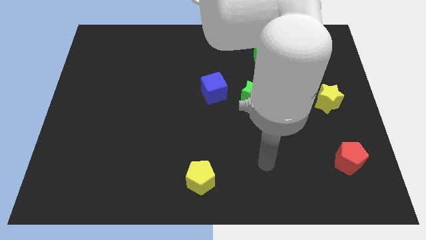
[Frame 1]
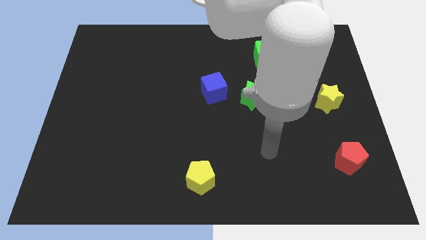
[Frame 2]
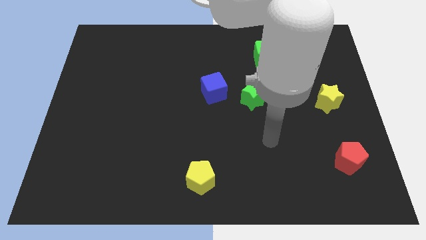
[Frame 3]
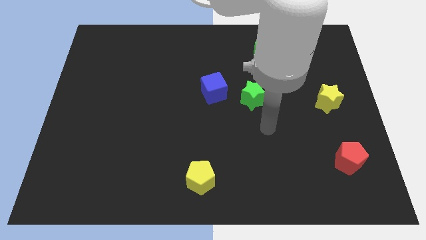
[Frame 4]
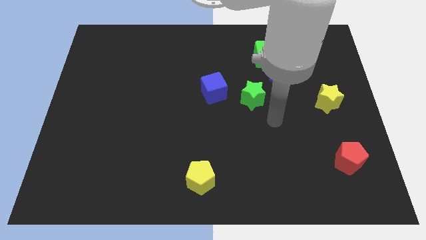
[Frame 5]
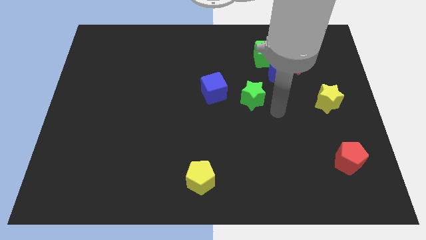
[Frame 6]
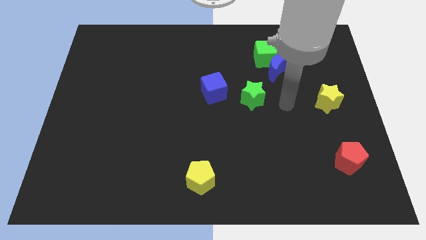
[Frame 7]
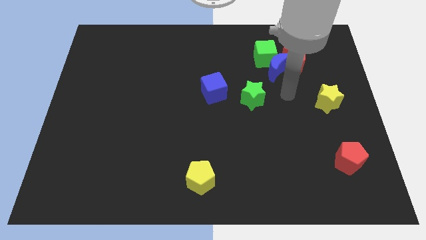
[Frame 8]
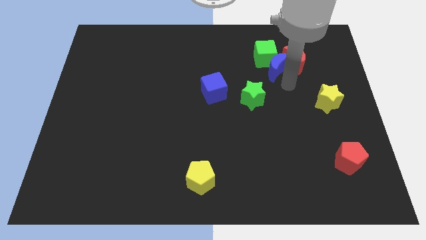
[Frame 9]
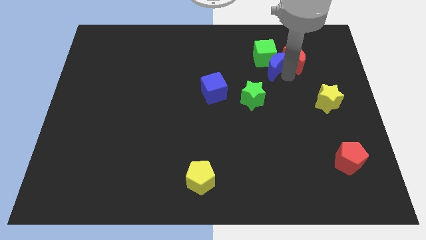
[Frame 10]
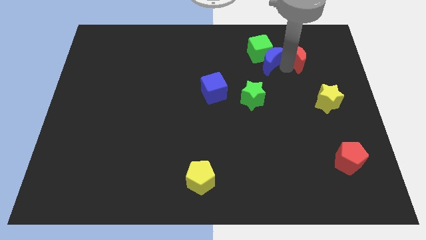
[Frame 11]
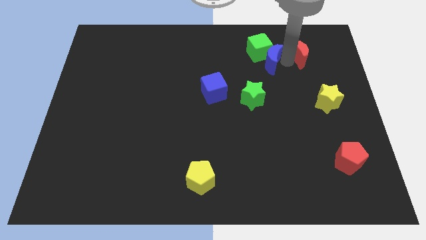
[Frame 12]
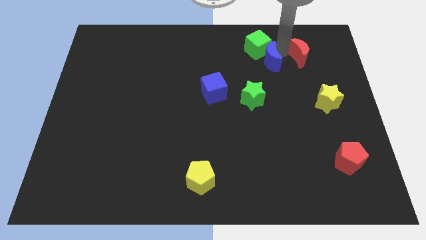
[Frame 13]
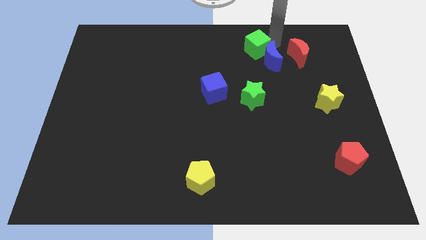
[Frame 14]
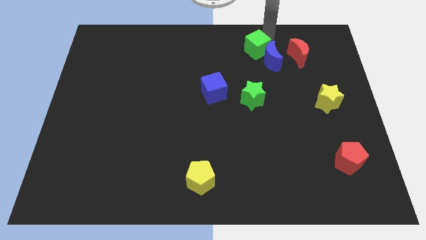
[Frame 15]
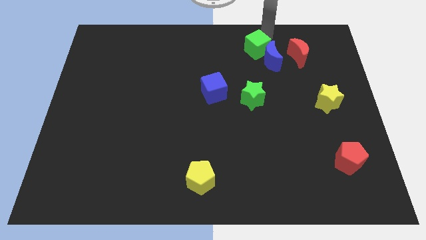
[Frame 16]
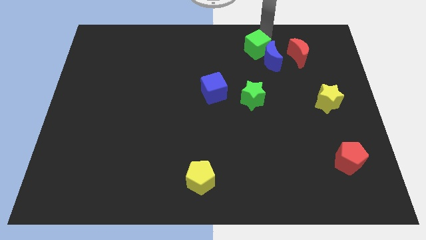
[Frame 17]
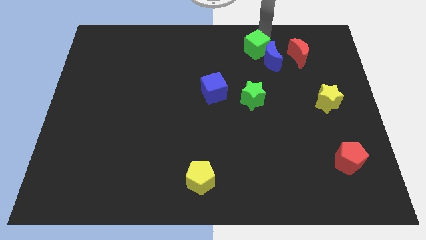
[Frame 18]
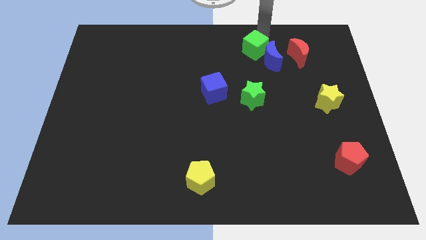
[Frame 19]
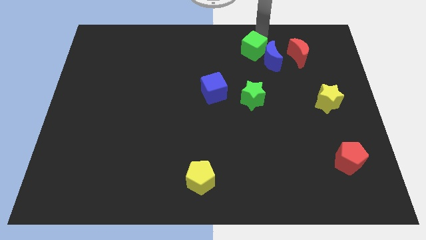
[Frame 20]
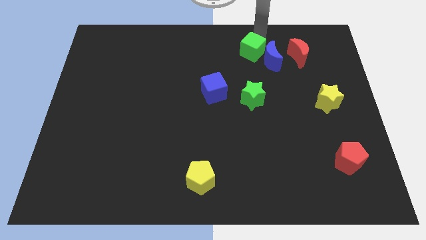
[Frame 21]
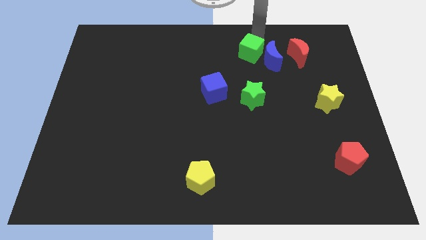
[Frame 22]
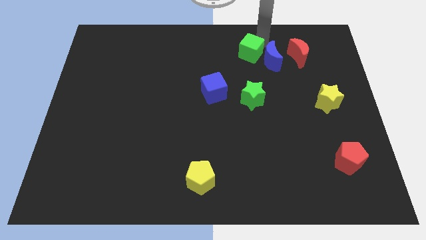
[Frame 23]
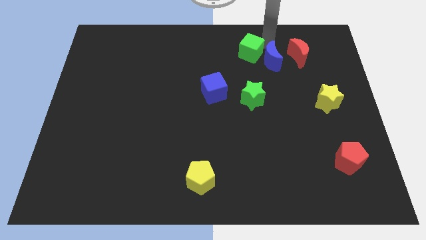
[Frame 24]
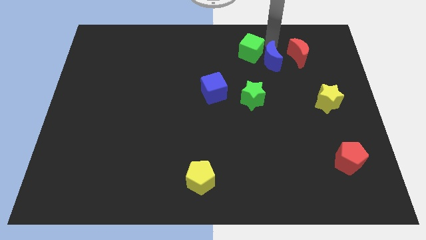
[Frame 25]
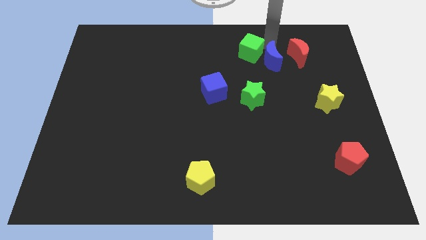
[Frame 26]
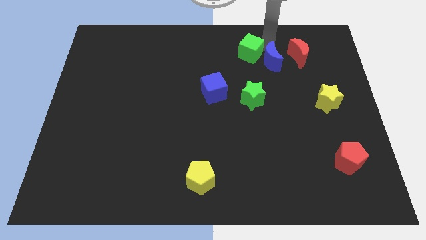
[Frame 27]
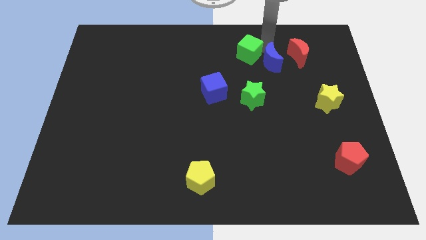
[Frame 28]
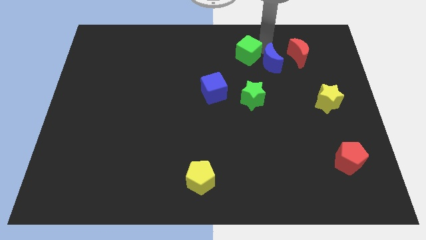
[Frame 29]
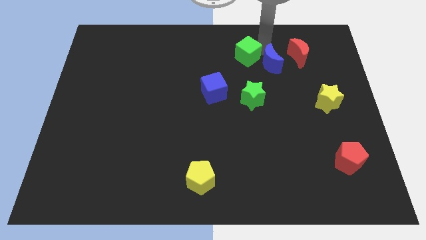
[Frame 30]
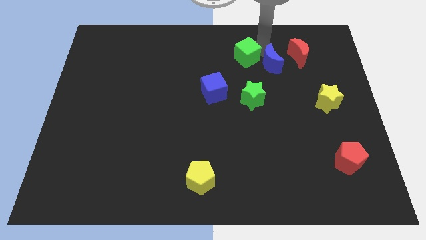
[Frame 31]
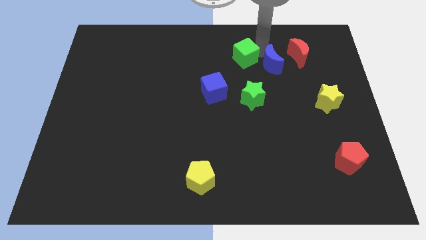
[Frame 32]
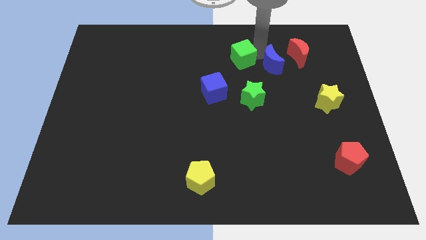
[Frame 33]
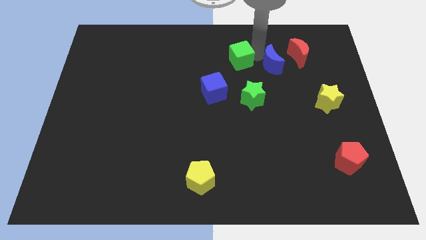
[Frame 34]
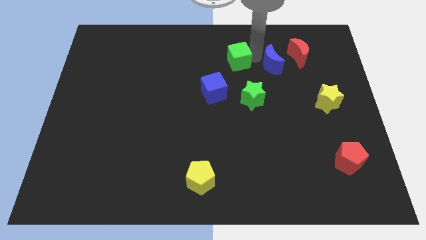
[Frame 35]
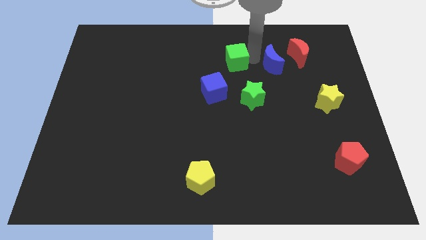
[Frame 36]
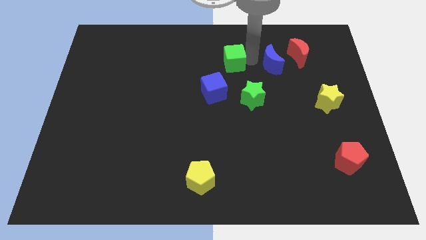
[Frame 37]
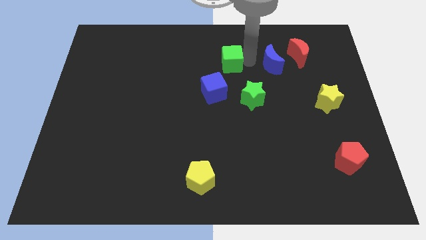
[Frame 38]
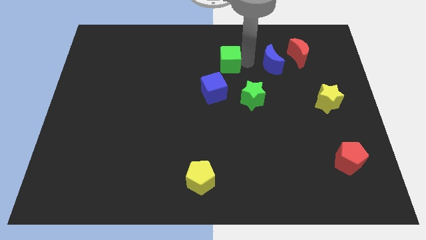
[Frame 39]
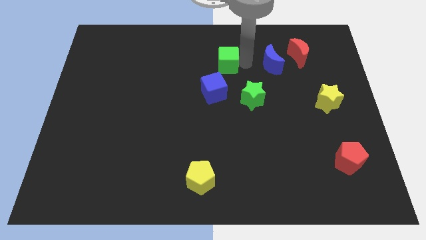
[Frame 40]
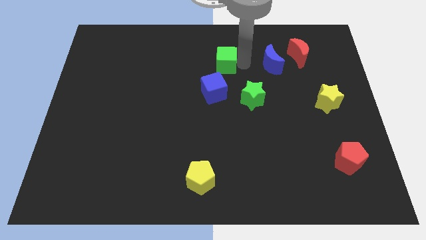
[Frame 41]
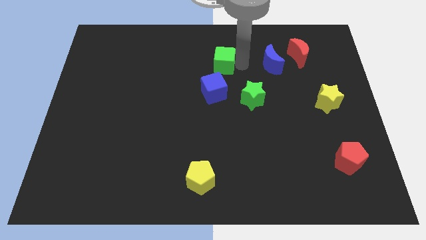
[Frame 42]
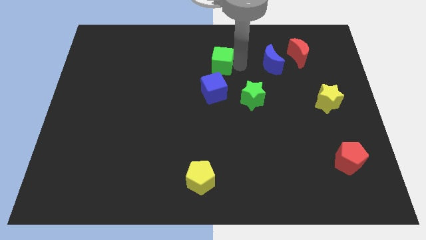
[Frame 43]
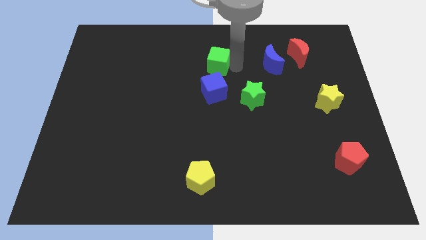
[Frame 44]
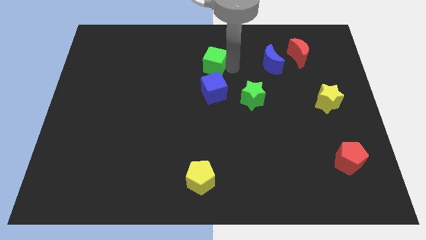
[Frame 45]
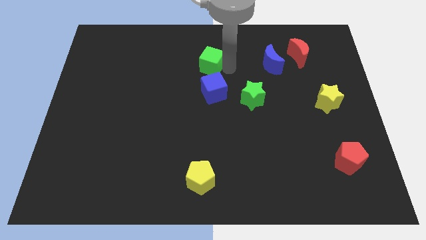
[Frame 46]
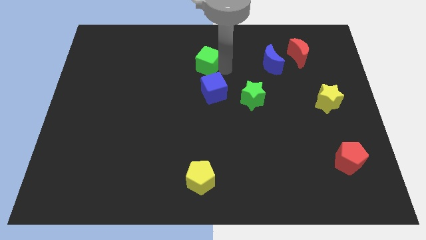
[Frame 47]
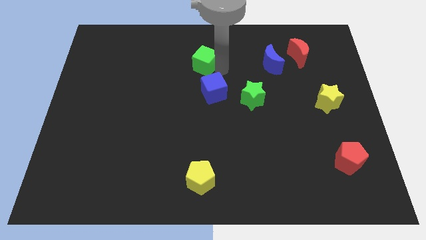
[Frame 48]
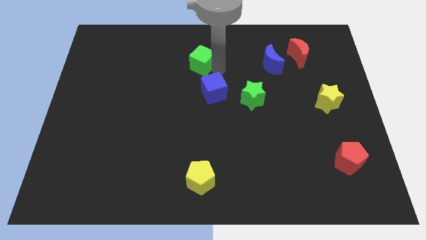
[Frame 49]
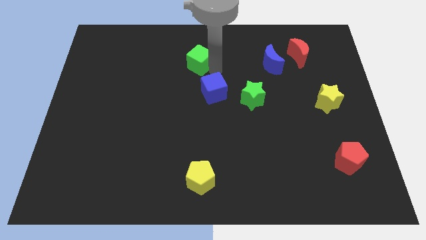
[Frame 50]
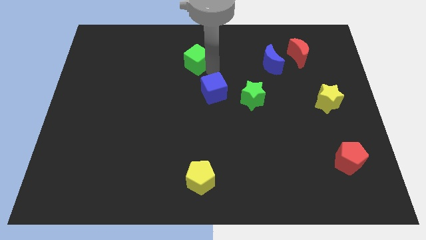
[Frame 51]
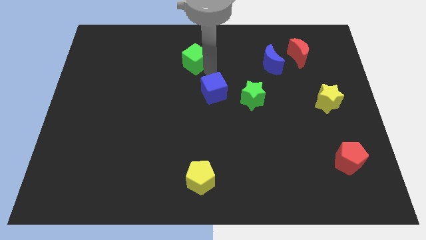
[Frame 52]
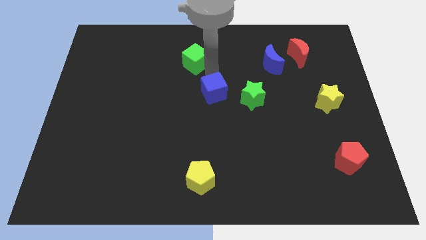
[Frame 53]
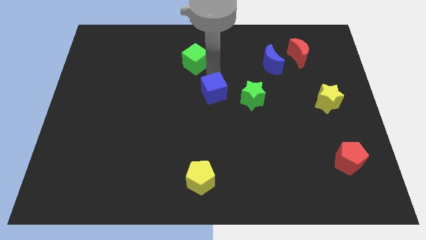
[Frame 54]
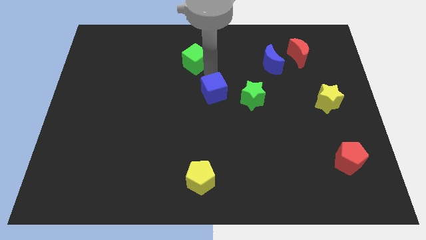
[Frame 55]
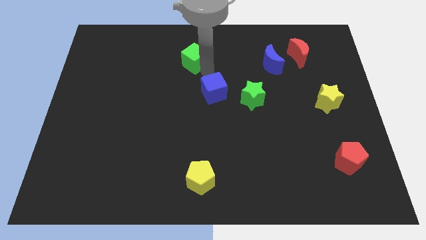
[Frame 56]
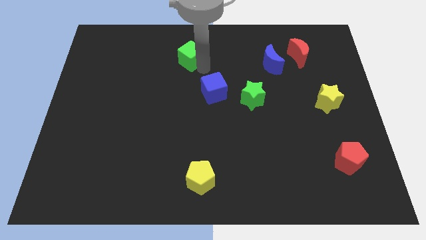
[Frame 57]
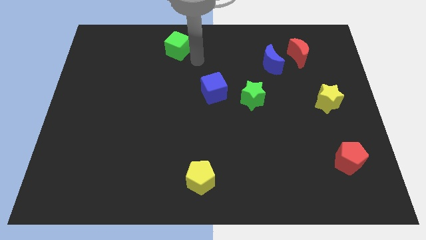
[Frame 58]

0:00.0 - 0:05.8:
move the green cube to the left

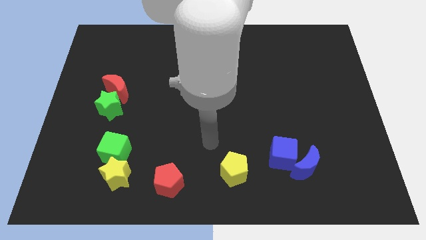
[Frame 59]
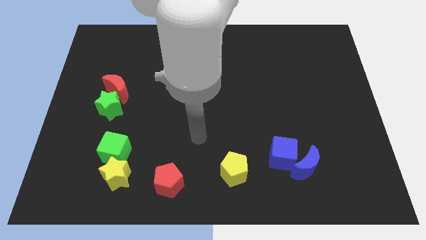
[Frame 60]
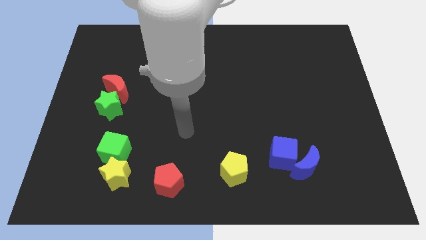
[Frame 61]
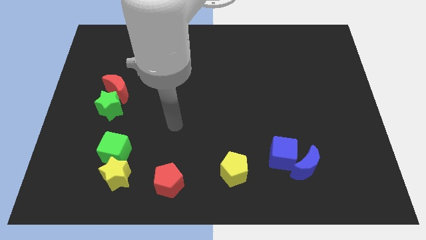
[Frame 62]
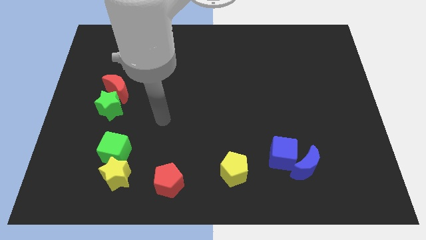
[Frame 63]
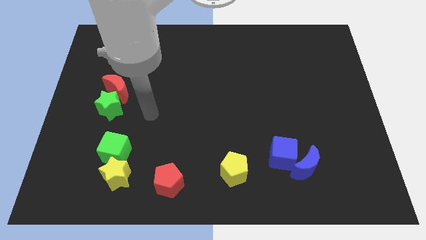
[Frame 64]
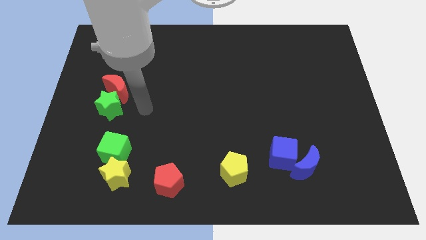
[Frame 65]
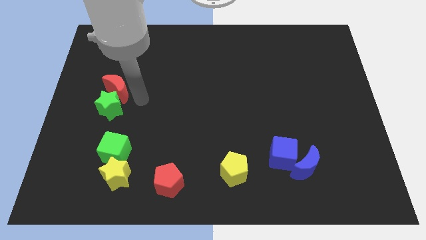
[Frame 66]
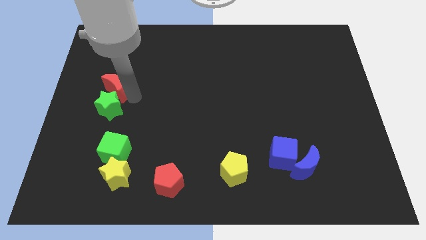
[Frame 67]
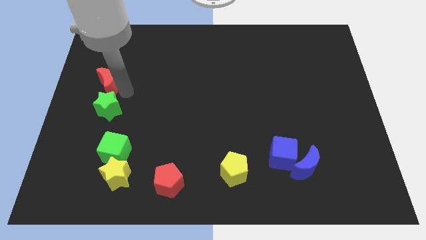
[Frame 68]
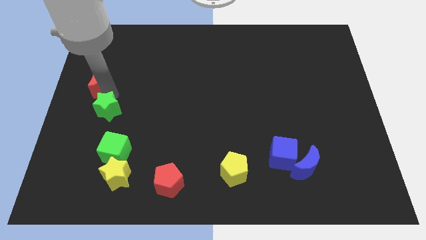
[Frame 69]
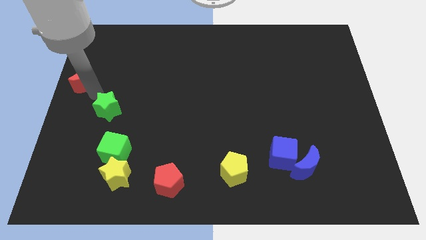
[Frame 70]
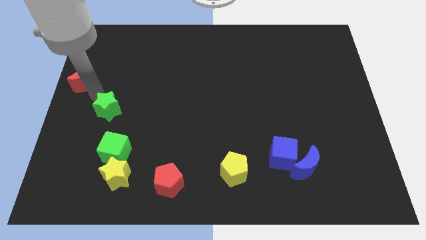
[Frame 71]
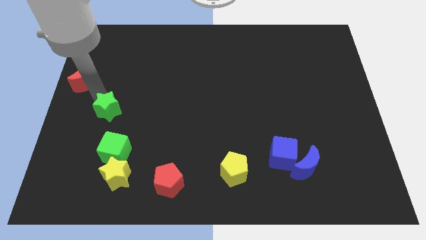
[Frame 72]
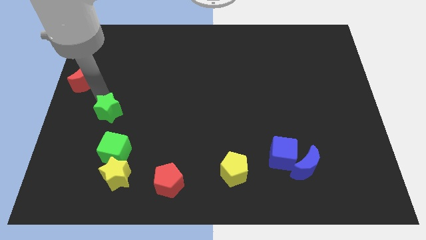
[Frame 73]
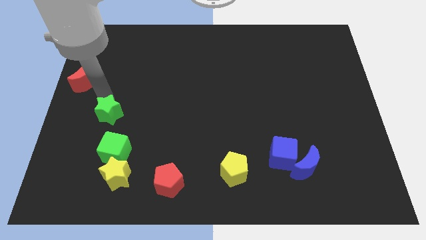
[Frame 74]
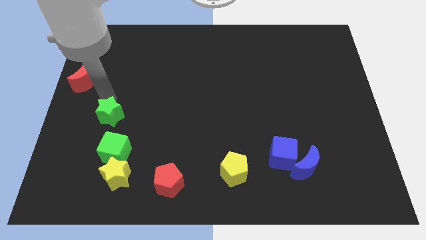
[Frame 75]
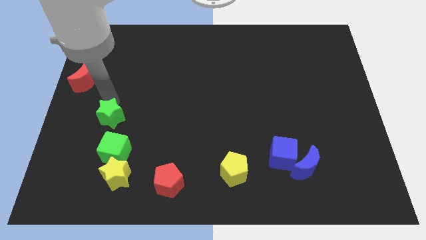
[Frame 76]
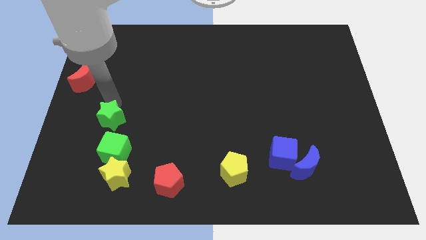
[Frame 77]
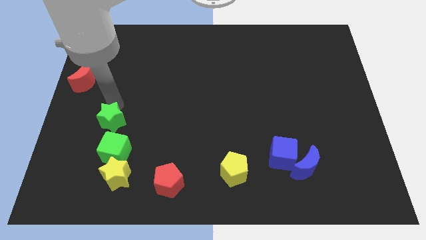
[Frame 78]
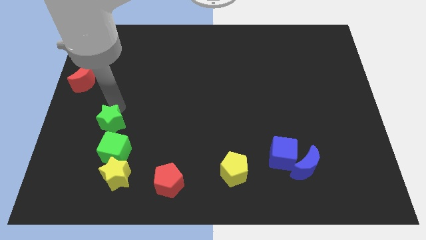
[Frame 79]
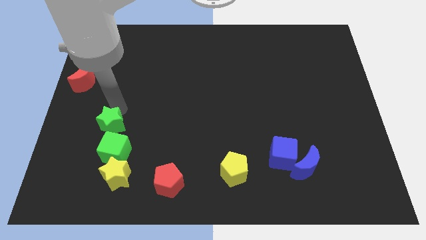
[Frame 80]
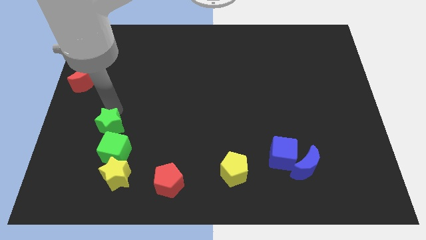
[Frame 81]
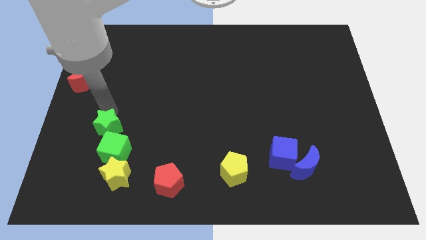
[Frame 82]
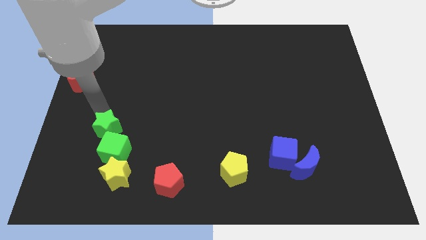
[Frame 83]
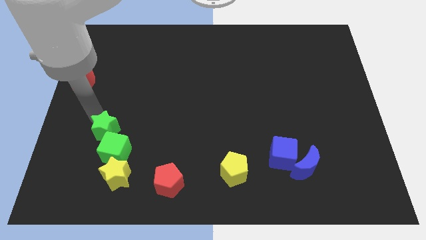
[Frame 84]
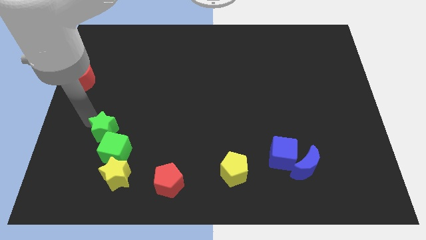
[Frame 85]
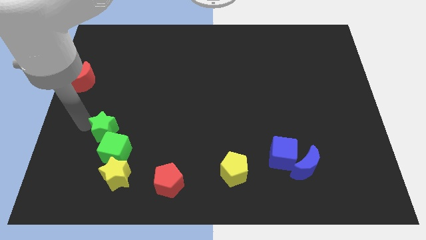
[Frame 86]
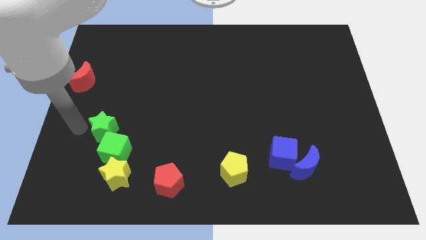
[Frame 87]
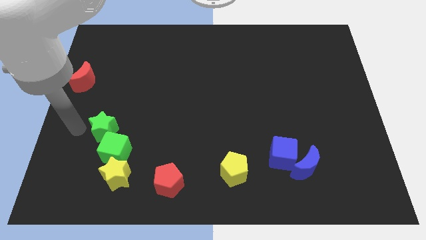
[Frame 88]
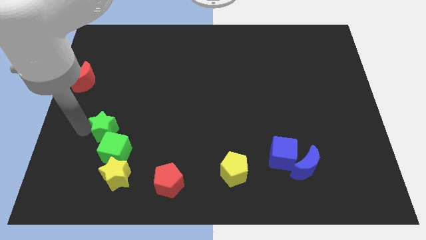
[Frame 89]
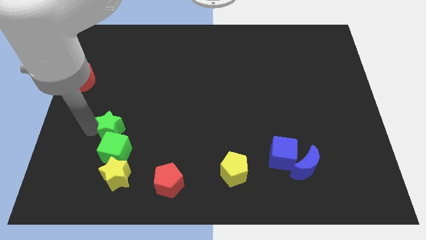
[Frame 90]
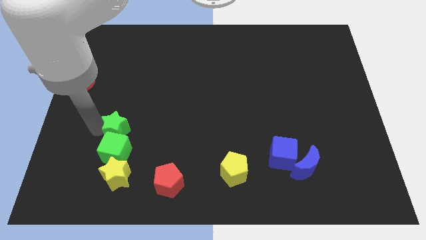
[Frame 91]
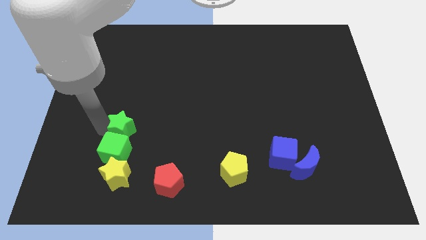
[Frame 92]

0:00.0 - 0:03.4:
move the green star a little down and then right
